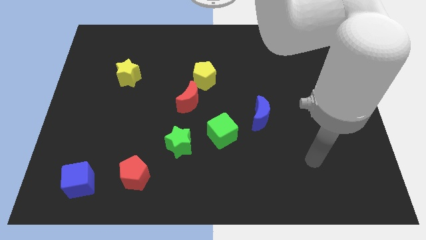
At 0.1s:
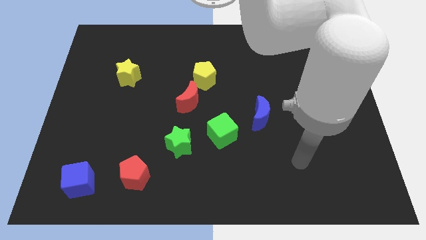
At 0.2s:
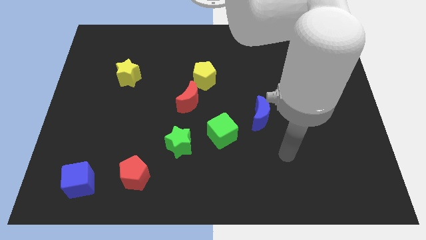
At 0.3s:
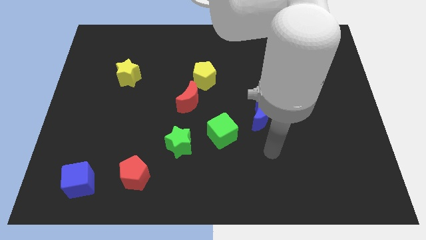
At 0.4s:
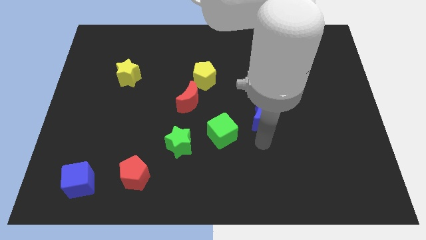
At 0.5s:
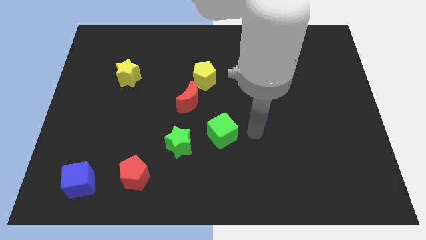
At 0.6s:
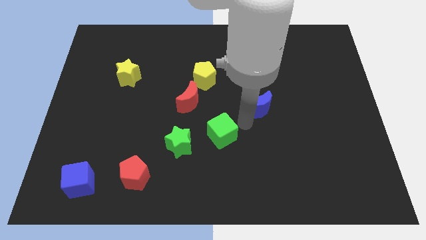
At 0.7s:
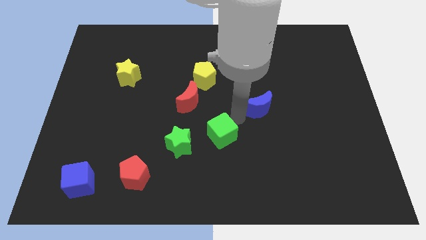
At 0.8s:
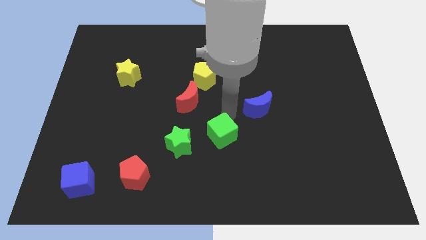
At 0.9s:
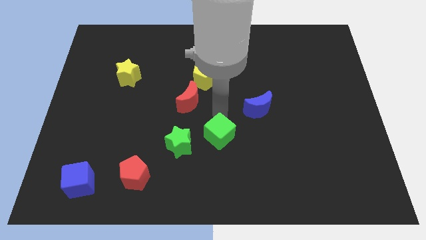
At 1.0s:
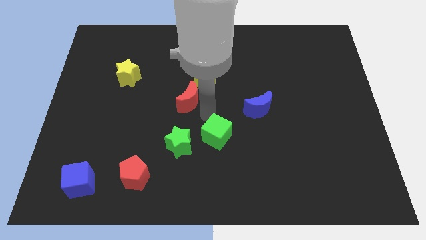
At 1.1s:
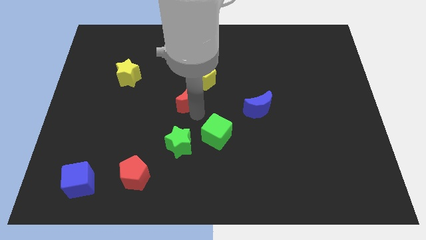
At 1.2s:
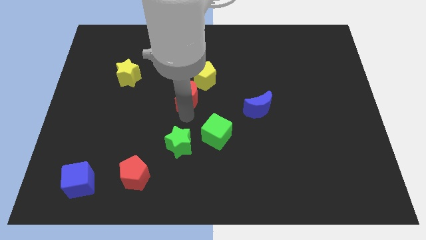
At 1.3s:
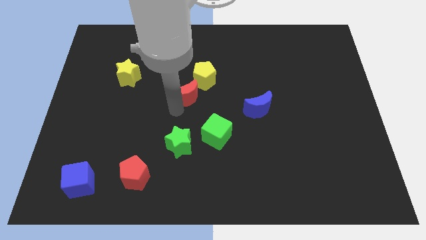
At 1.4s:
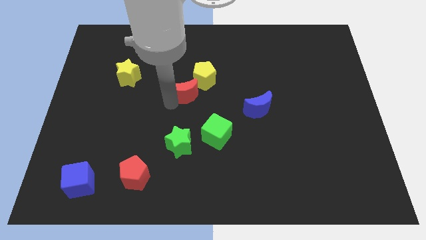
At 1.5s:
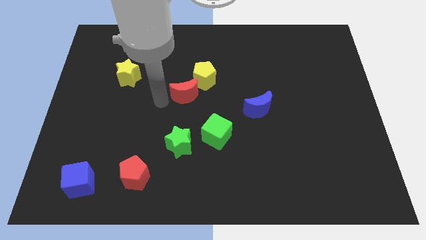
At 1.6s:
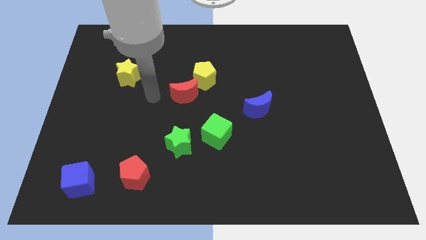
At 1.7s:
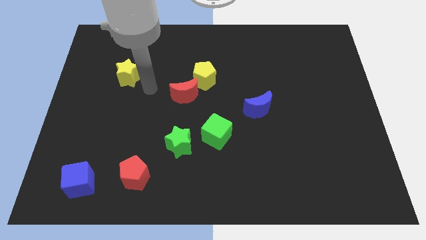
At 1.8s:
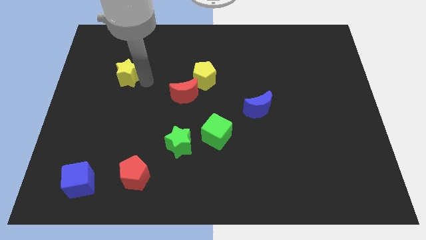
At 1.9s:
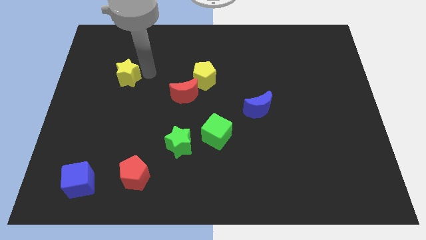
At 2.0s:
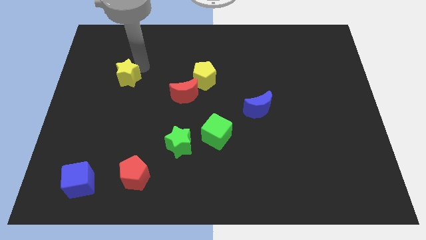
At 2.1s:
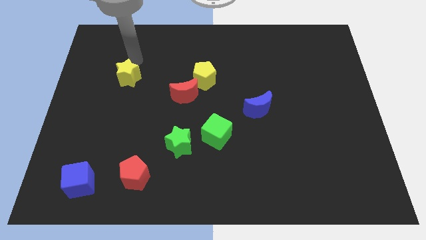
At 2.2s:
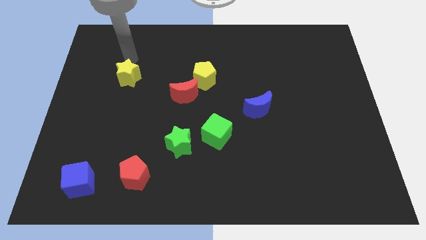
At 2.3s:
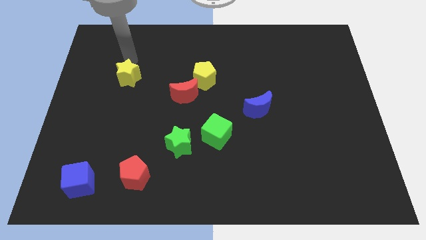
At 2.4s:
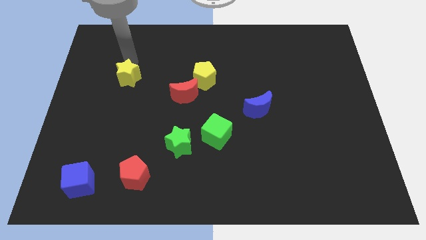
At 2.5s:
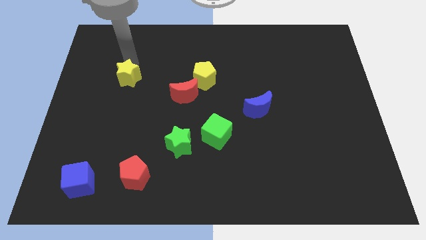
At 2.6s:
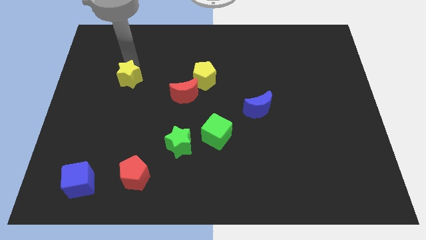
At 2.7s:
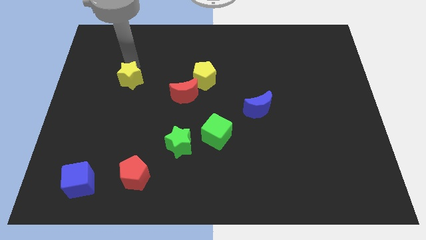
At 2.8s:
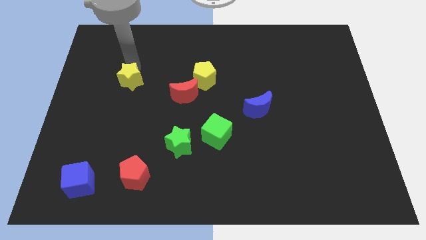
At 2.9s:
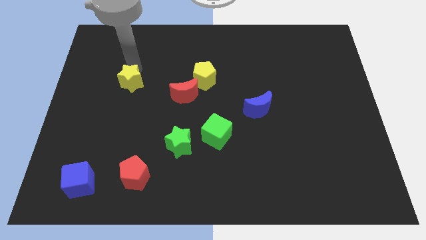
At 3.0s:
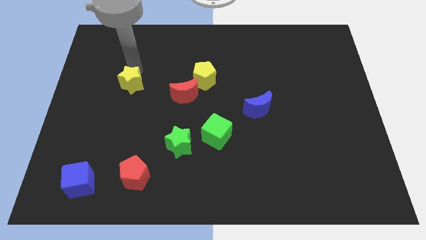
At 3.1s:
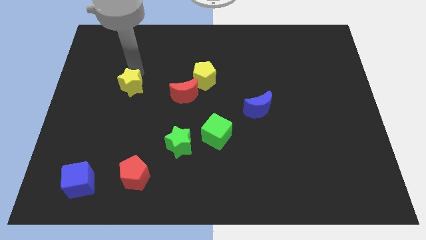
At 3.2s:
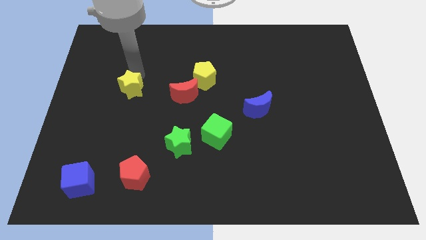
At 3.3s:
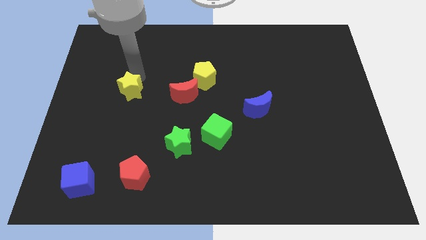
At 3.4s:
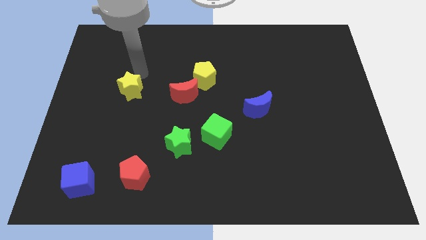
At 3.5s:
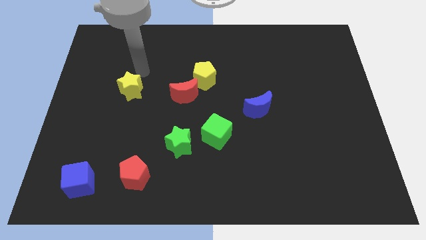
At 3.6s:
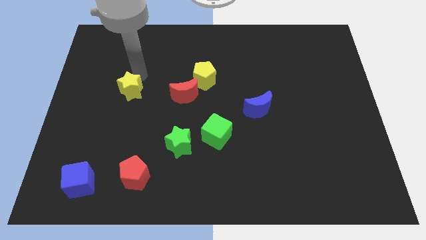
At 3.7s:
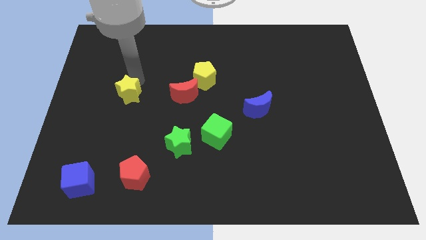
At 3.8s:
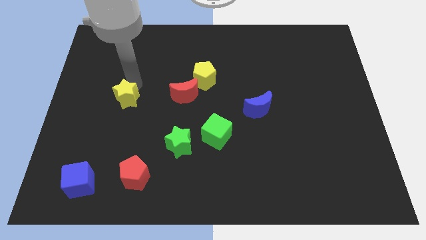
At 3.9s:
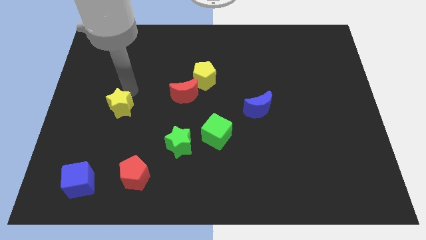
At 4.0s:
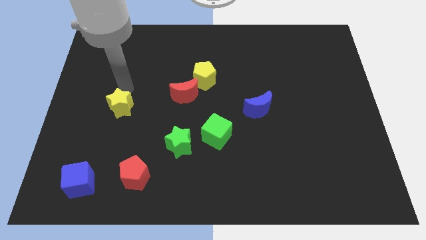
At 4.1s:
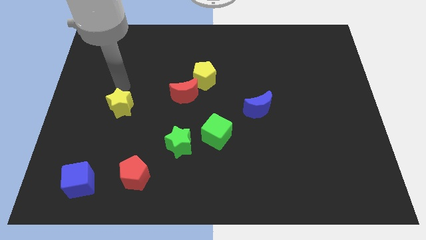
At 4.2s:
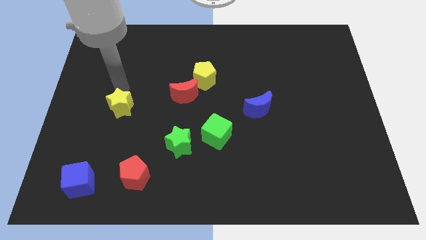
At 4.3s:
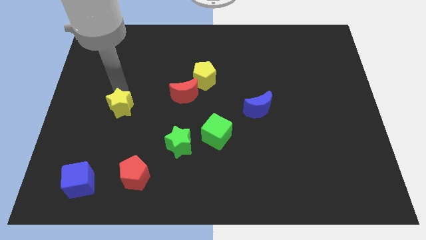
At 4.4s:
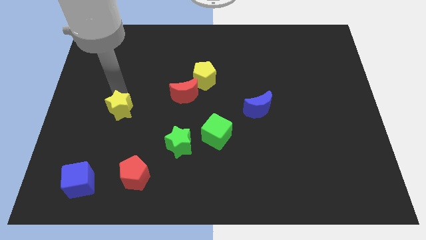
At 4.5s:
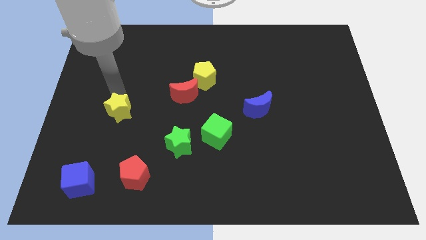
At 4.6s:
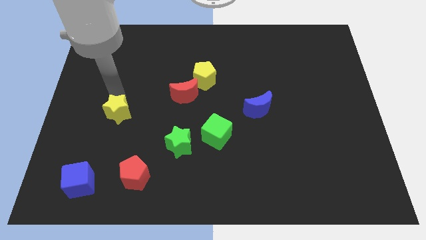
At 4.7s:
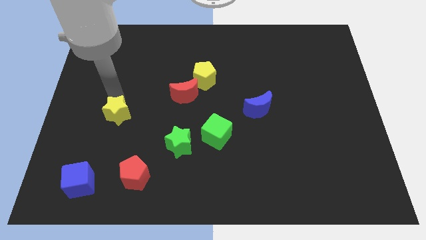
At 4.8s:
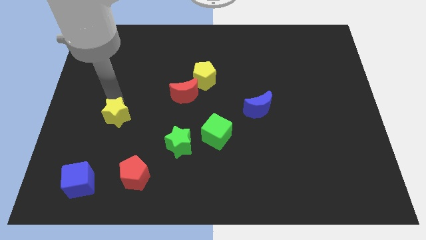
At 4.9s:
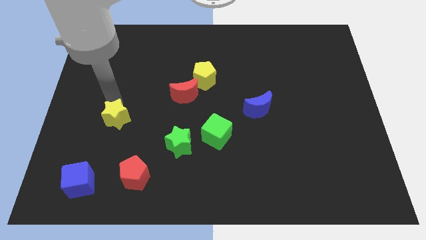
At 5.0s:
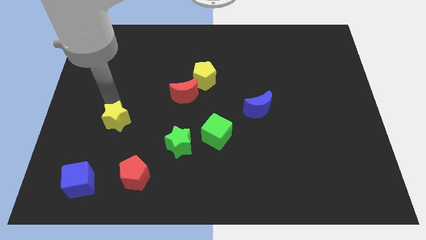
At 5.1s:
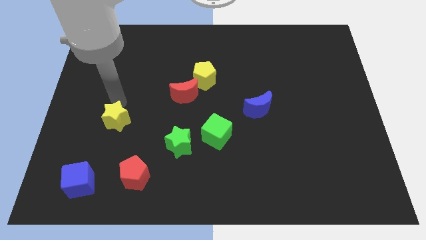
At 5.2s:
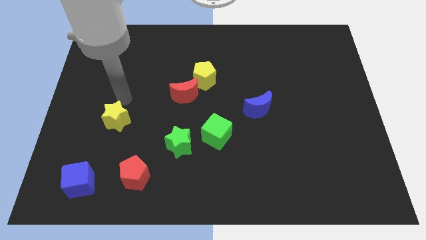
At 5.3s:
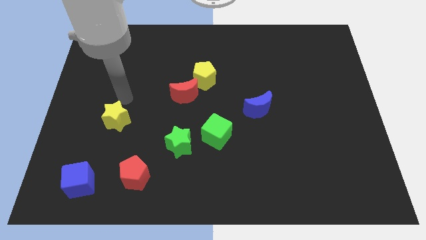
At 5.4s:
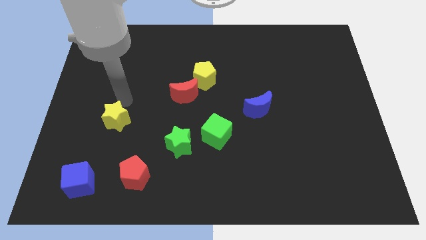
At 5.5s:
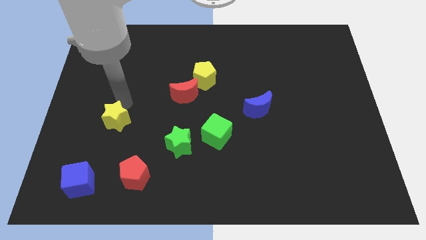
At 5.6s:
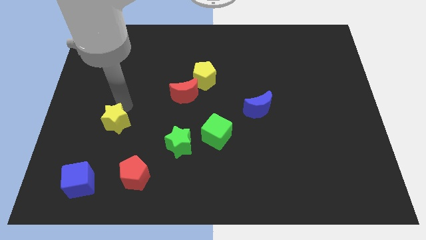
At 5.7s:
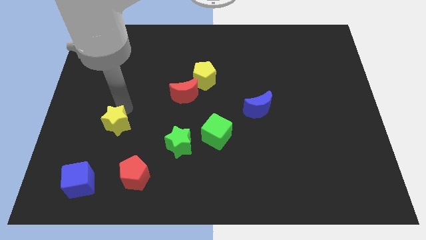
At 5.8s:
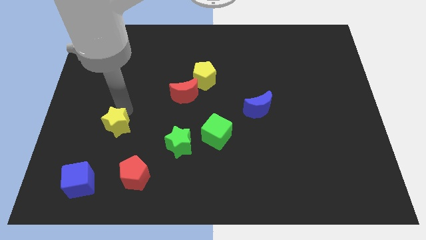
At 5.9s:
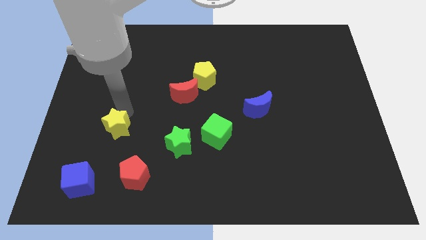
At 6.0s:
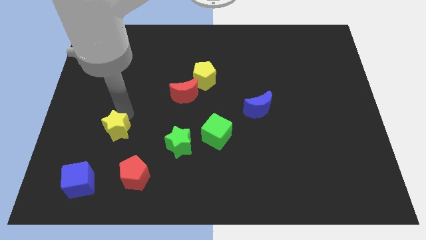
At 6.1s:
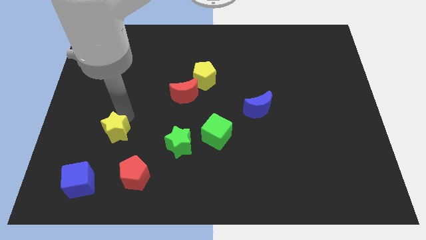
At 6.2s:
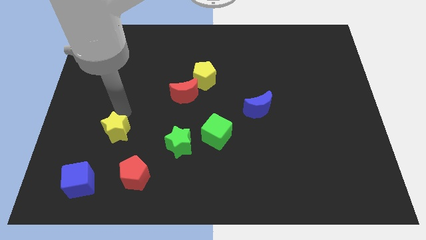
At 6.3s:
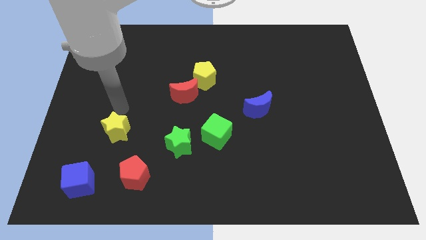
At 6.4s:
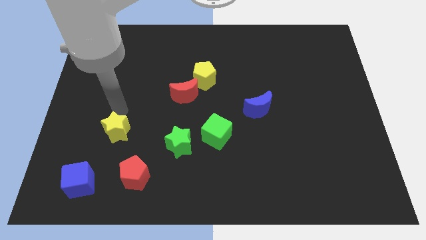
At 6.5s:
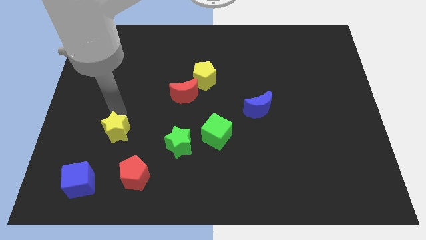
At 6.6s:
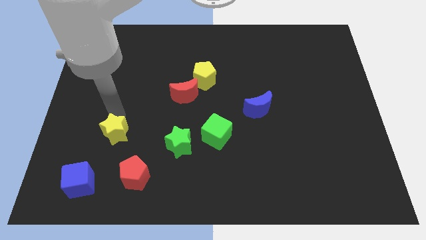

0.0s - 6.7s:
put the yellow star to the top left side of the red pentagon

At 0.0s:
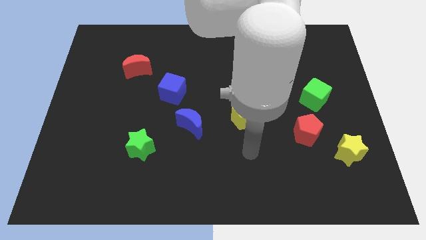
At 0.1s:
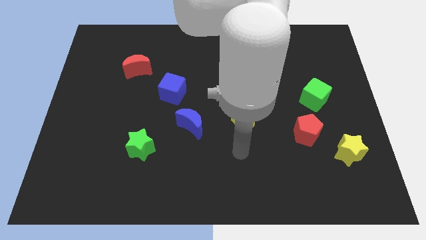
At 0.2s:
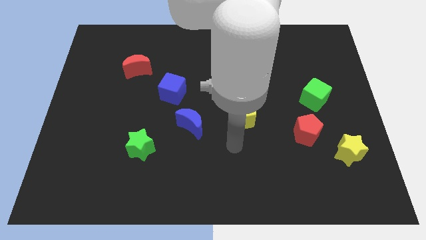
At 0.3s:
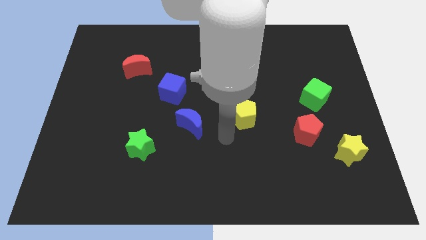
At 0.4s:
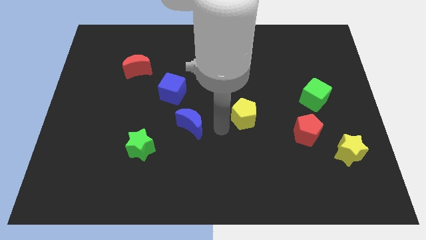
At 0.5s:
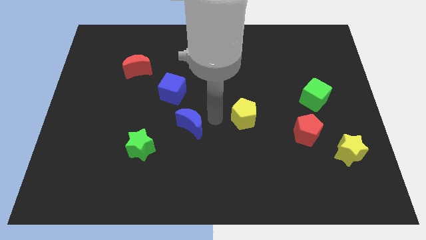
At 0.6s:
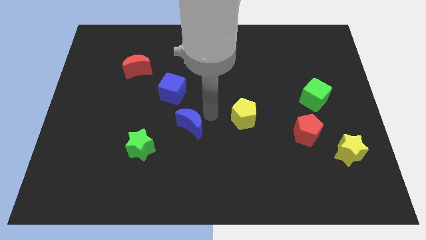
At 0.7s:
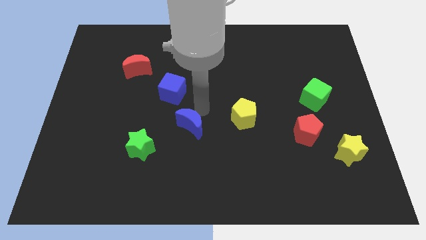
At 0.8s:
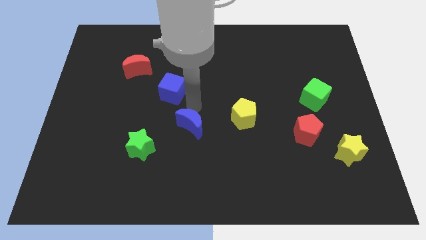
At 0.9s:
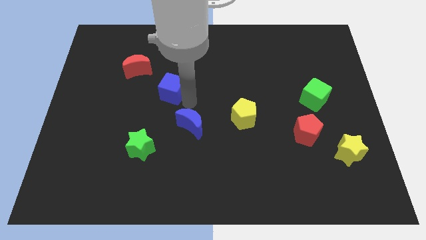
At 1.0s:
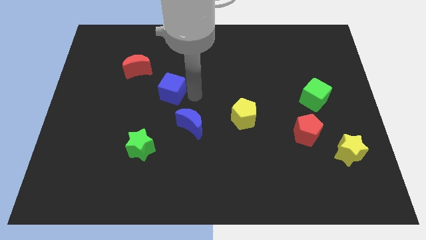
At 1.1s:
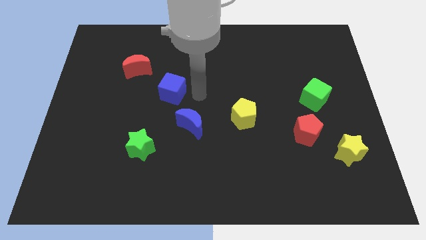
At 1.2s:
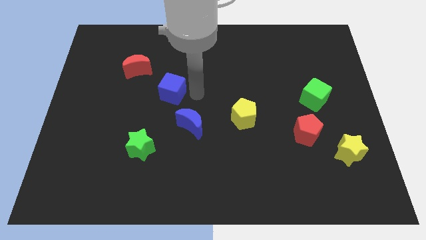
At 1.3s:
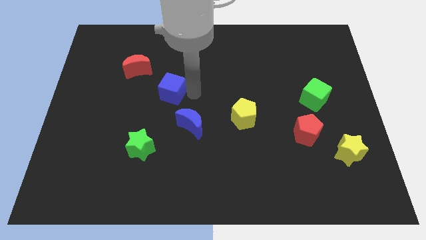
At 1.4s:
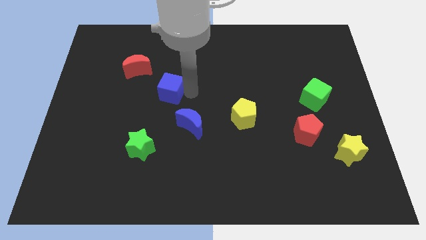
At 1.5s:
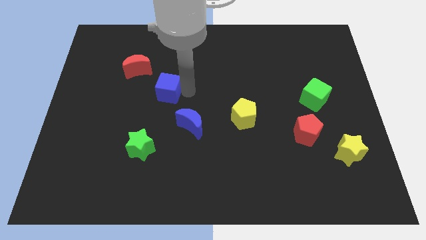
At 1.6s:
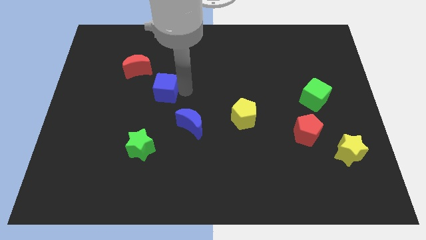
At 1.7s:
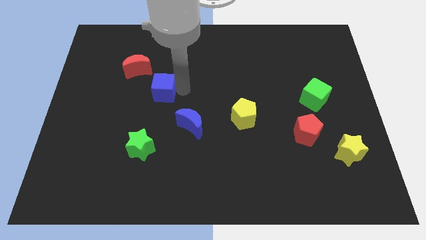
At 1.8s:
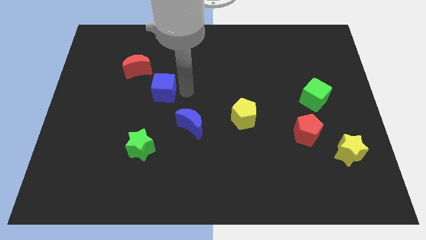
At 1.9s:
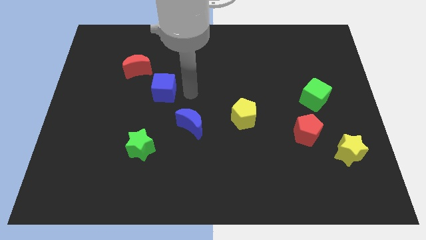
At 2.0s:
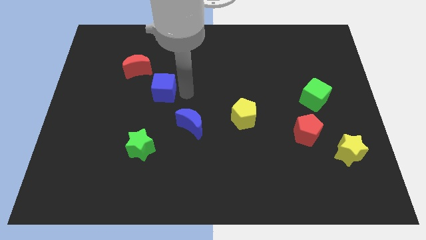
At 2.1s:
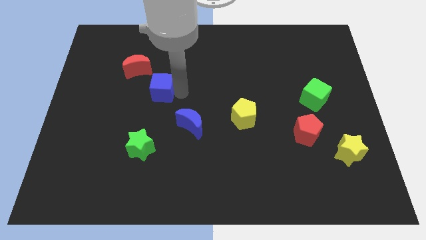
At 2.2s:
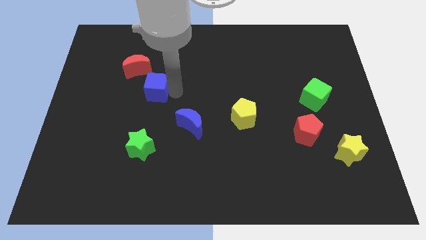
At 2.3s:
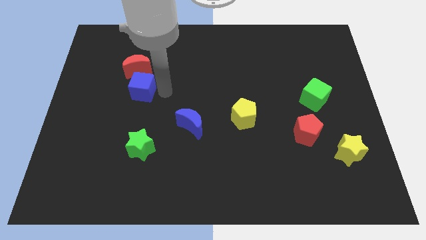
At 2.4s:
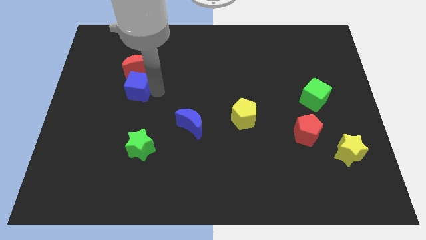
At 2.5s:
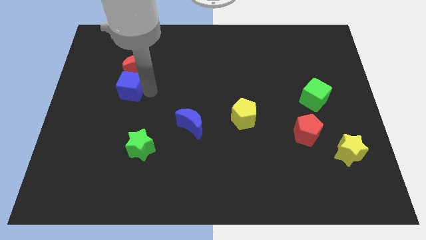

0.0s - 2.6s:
push the blue cube diagonally down and to the left of the red moon
